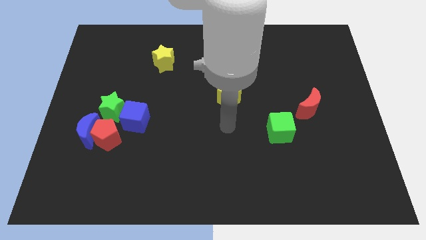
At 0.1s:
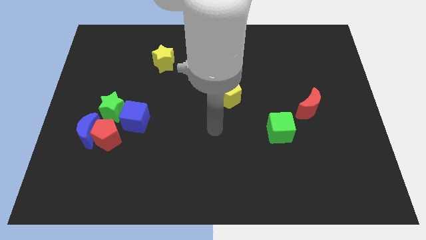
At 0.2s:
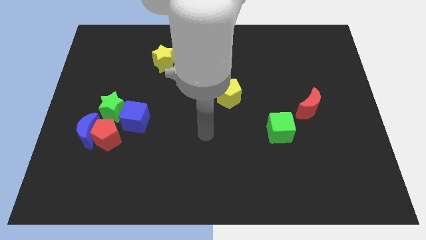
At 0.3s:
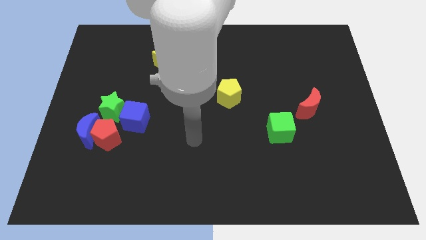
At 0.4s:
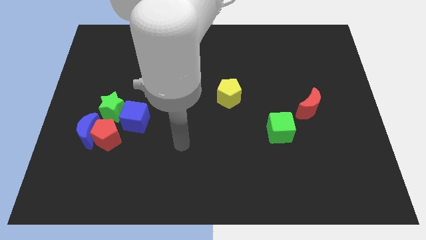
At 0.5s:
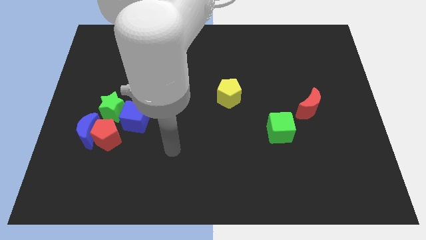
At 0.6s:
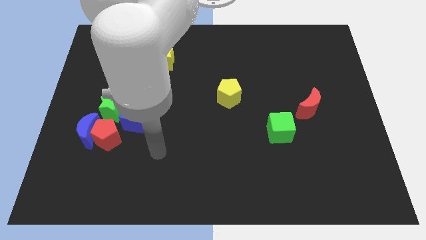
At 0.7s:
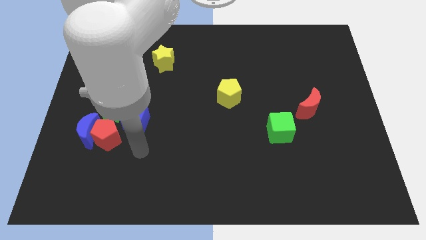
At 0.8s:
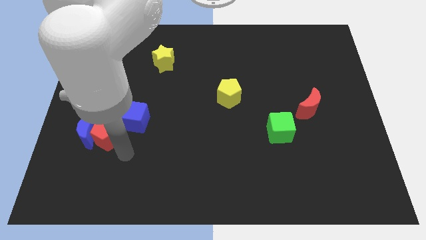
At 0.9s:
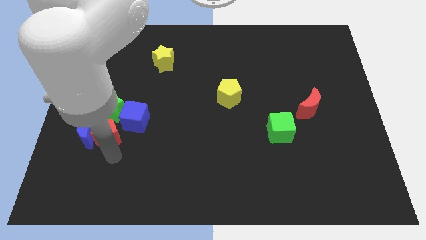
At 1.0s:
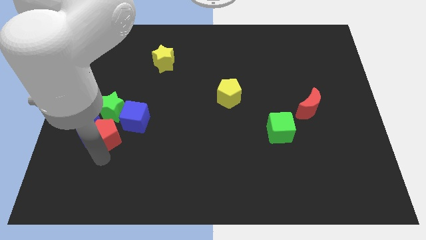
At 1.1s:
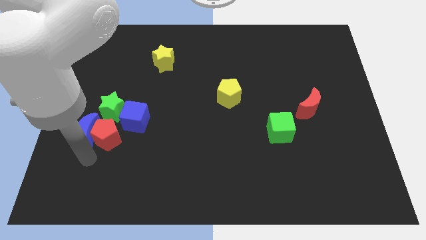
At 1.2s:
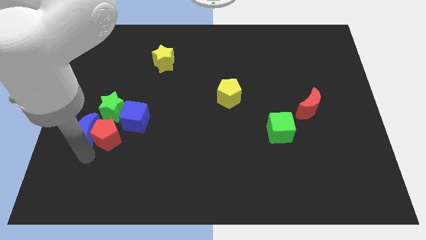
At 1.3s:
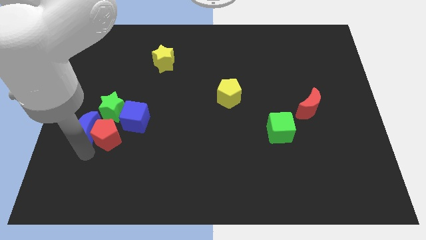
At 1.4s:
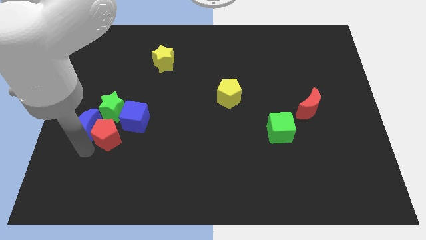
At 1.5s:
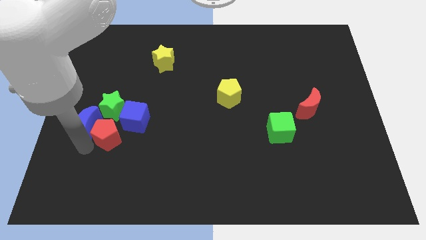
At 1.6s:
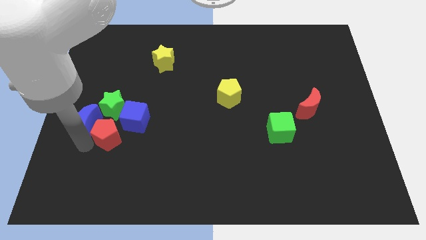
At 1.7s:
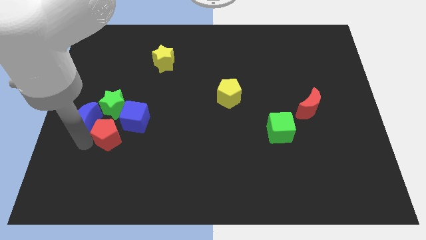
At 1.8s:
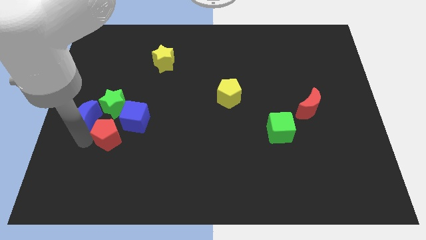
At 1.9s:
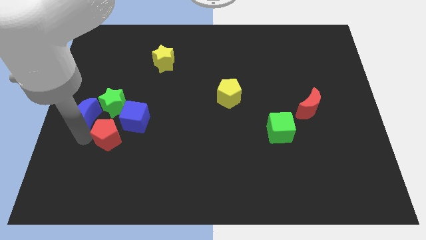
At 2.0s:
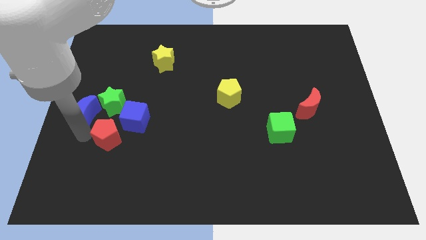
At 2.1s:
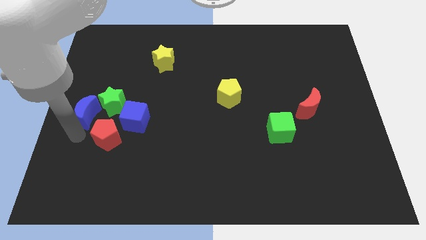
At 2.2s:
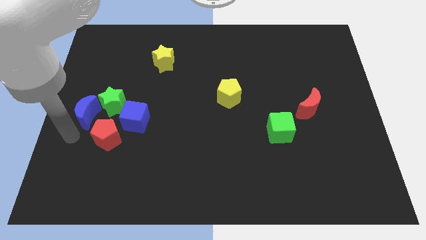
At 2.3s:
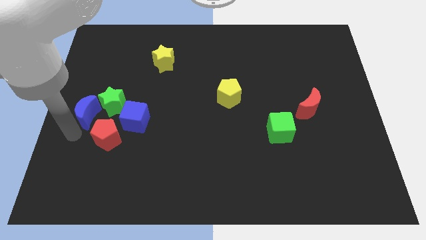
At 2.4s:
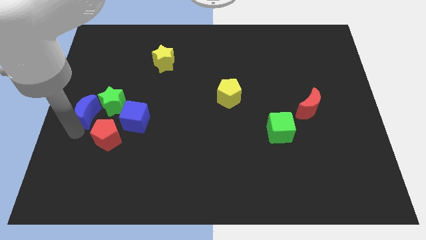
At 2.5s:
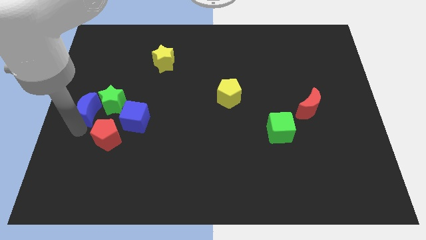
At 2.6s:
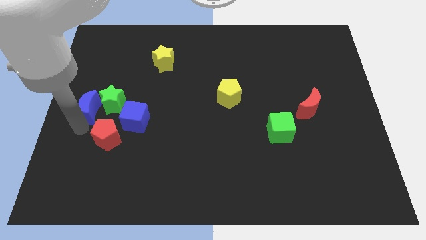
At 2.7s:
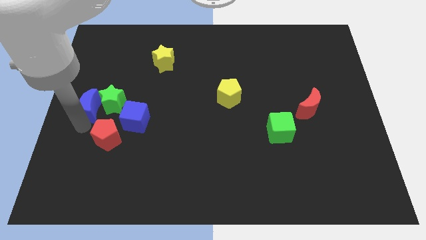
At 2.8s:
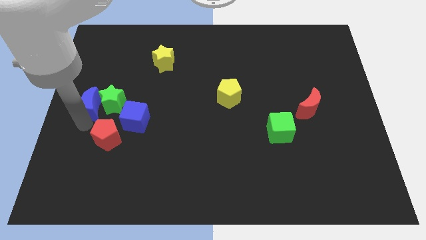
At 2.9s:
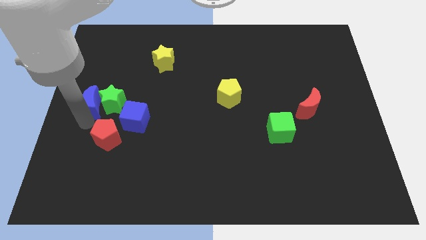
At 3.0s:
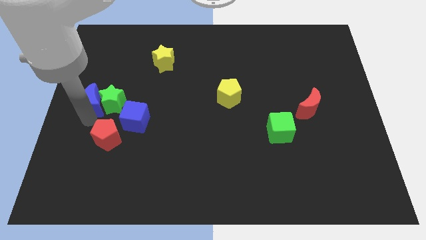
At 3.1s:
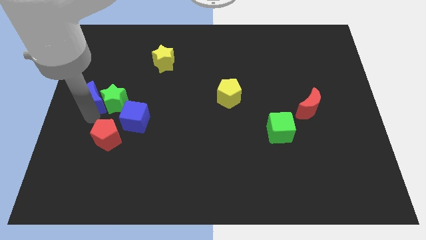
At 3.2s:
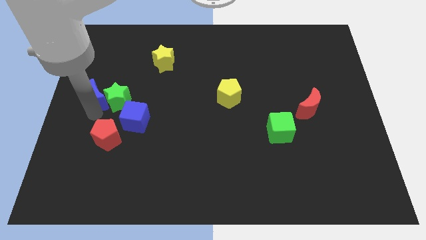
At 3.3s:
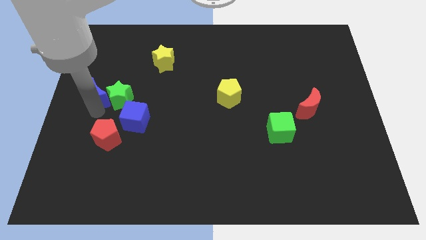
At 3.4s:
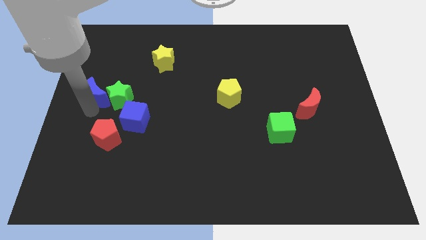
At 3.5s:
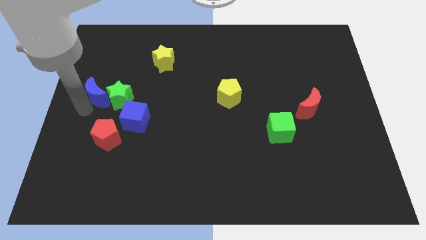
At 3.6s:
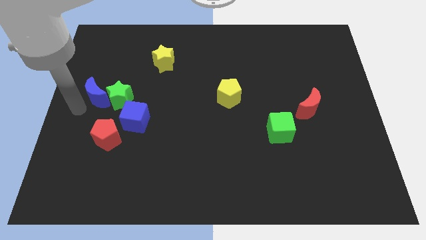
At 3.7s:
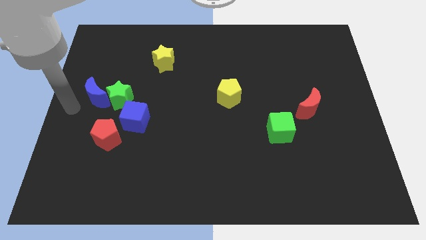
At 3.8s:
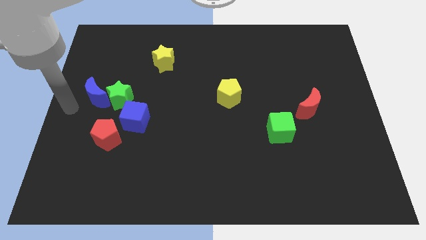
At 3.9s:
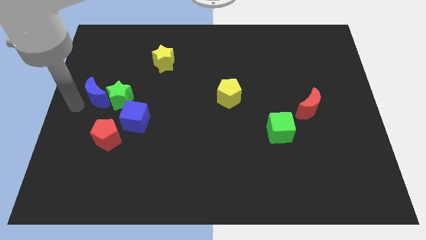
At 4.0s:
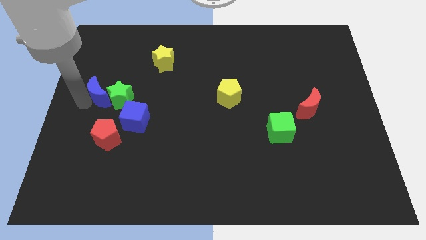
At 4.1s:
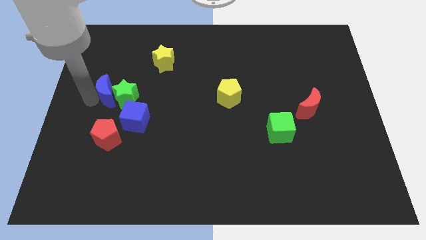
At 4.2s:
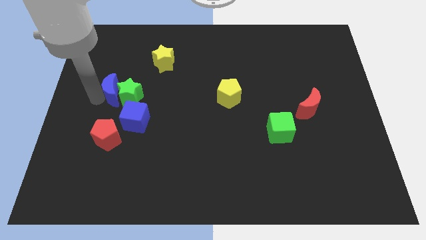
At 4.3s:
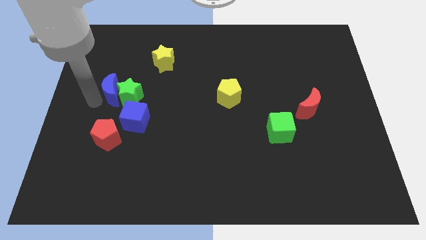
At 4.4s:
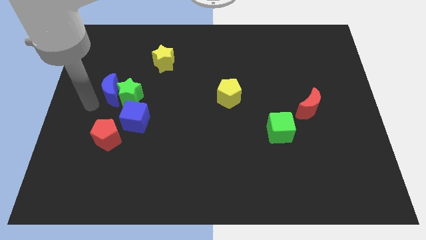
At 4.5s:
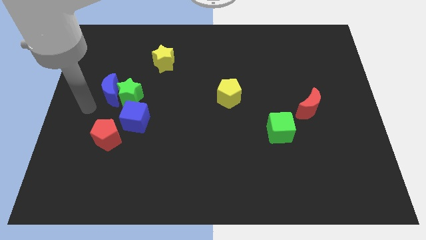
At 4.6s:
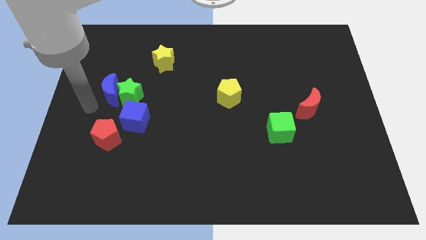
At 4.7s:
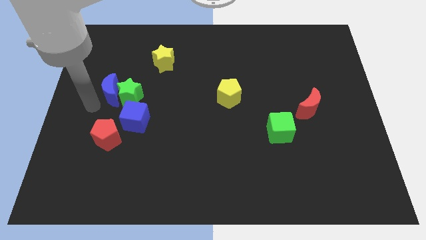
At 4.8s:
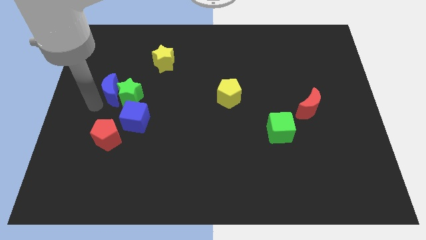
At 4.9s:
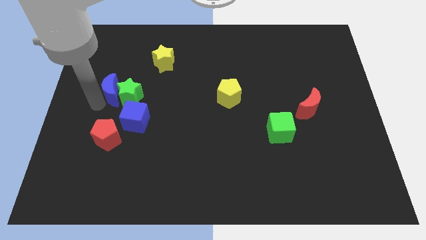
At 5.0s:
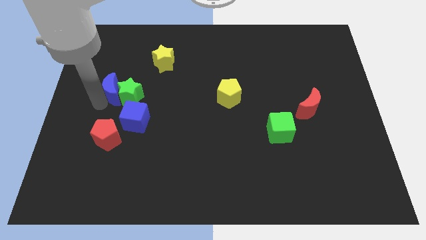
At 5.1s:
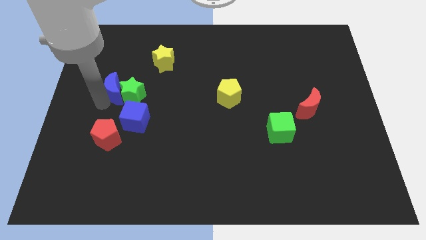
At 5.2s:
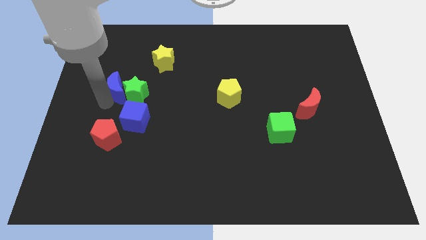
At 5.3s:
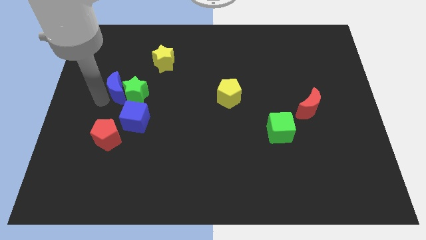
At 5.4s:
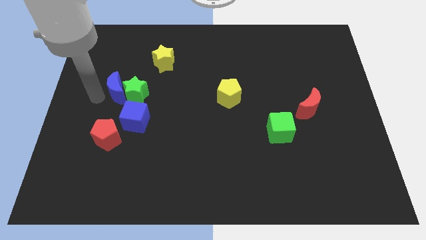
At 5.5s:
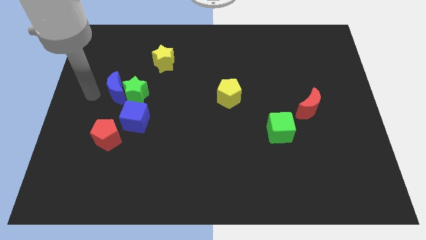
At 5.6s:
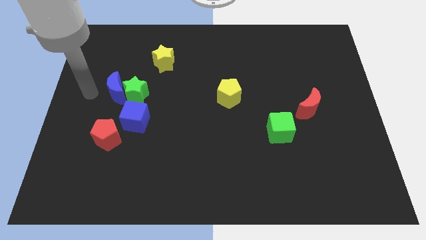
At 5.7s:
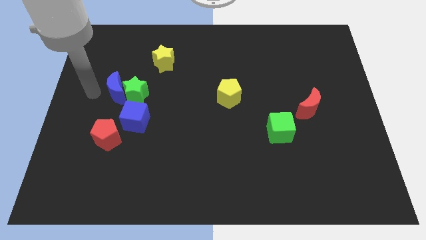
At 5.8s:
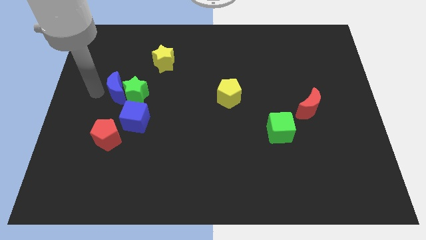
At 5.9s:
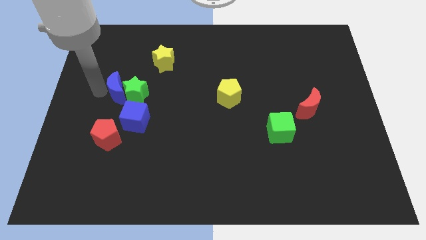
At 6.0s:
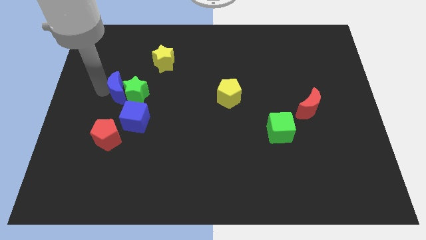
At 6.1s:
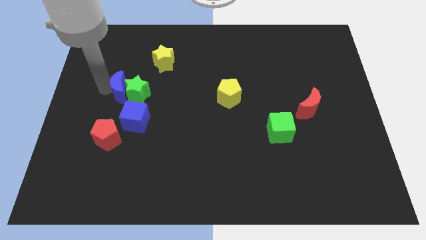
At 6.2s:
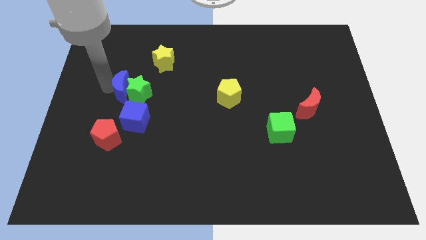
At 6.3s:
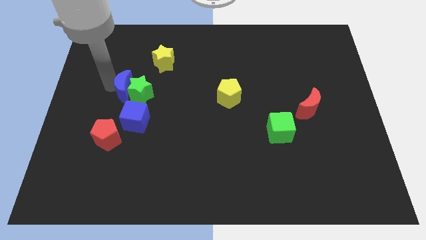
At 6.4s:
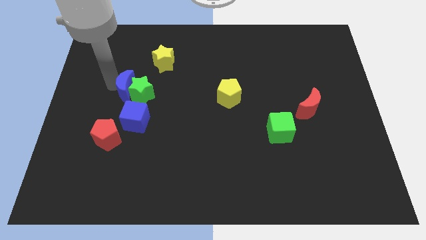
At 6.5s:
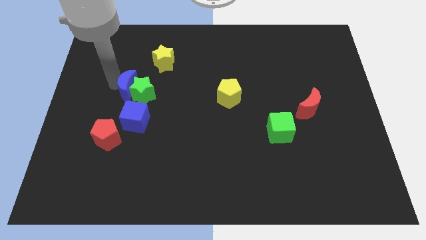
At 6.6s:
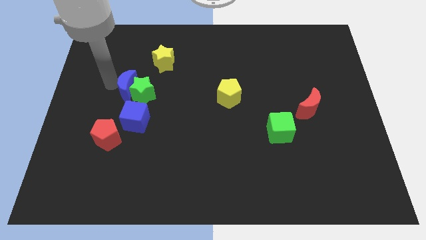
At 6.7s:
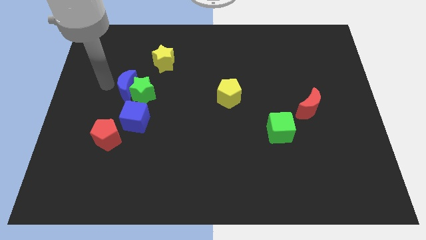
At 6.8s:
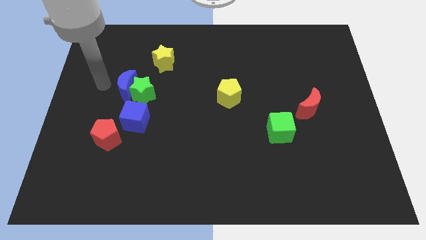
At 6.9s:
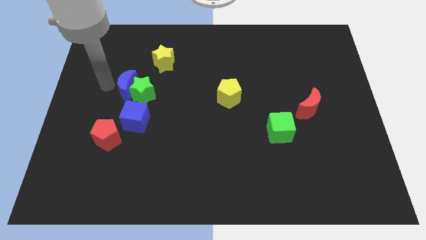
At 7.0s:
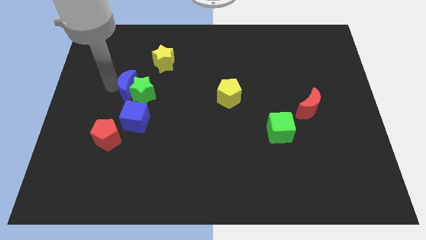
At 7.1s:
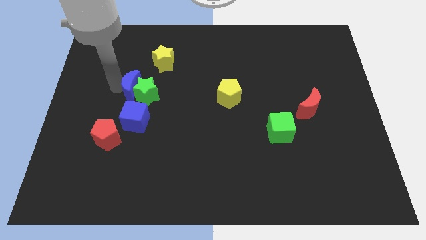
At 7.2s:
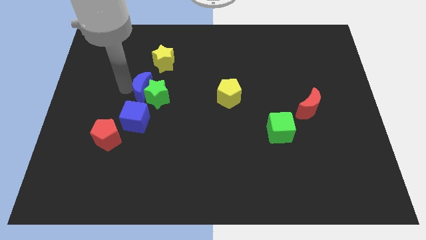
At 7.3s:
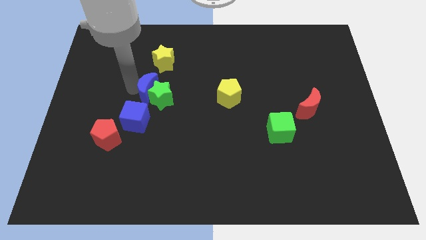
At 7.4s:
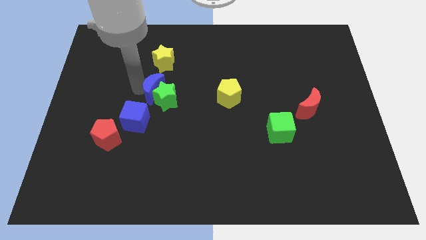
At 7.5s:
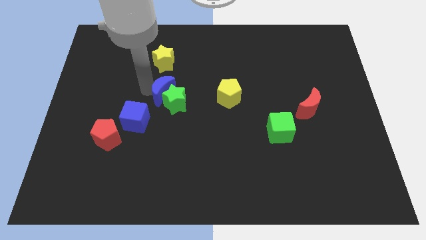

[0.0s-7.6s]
move the blue moon to the middle of the board
